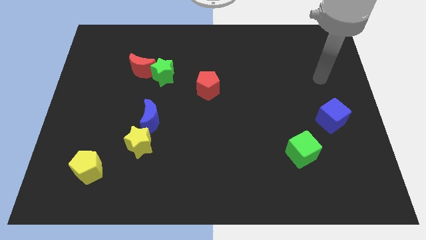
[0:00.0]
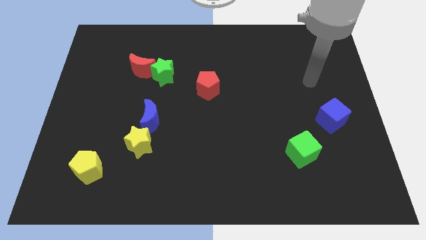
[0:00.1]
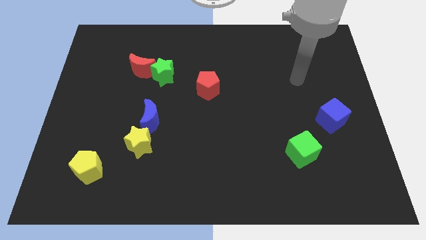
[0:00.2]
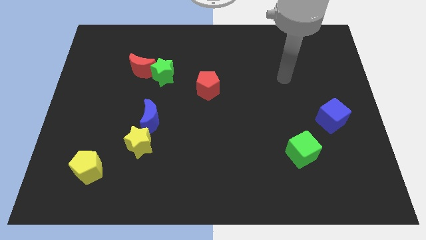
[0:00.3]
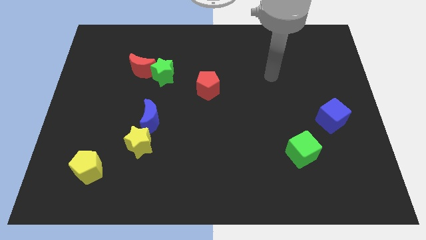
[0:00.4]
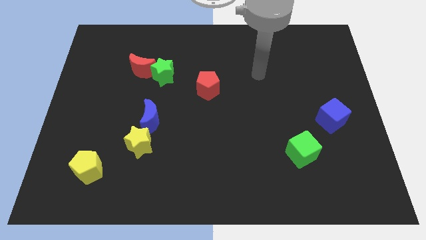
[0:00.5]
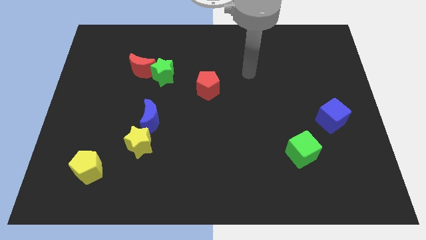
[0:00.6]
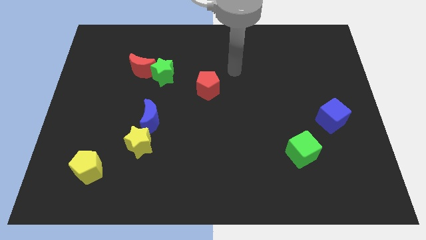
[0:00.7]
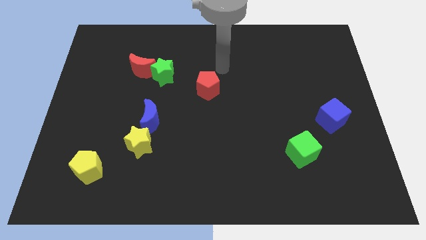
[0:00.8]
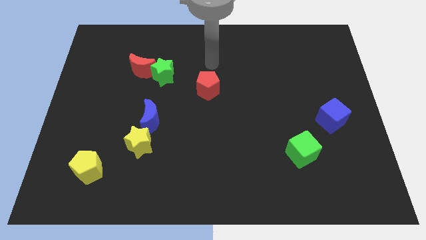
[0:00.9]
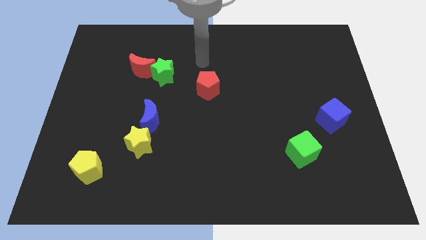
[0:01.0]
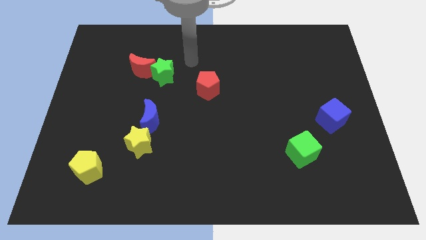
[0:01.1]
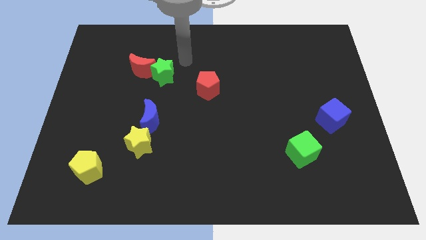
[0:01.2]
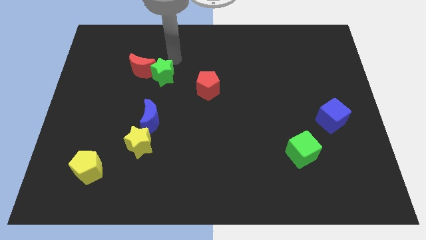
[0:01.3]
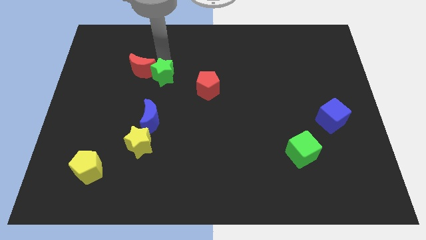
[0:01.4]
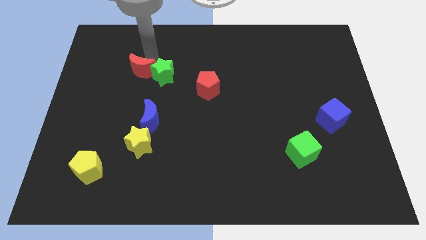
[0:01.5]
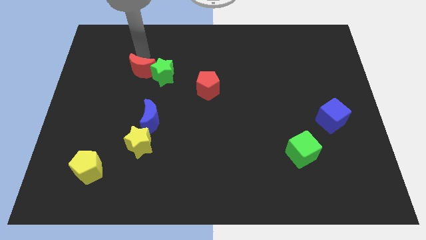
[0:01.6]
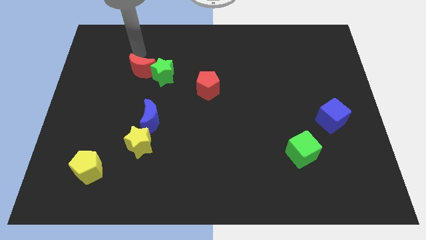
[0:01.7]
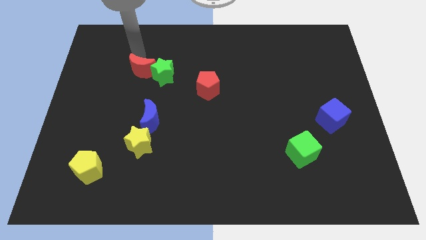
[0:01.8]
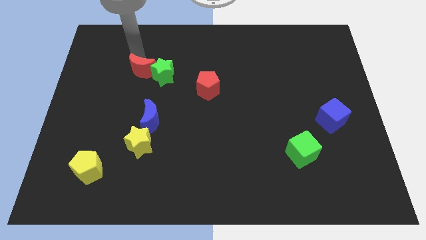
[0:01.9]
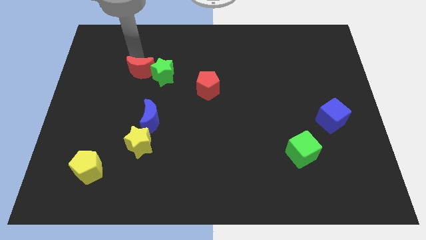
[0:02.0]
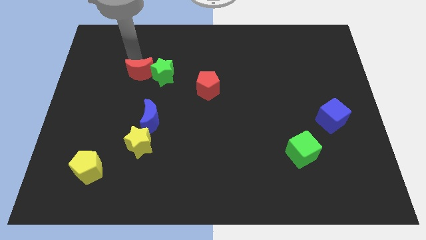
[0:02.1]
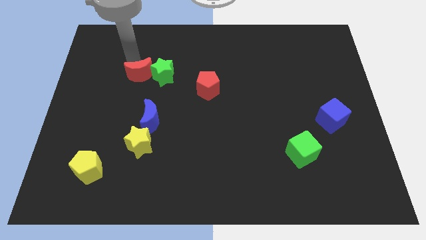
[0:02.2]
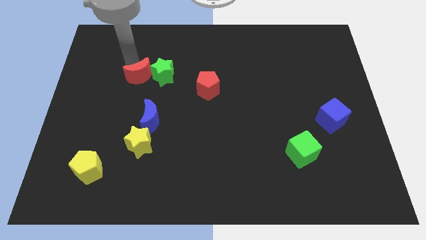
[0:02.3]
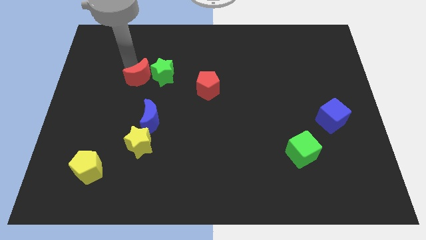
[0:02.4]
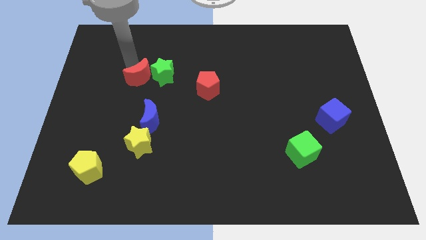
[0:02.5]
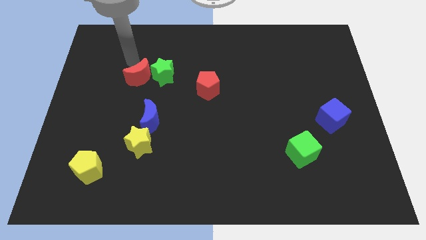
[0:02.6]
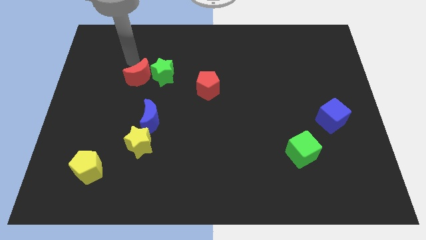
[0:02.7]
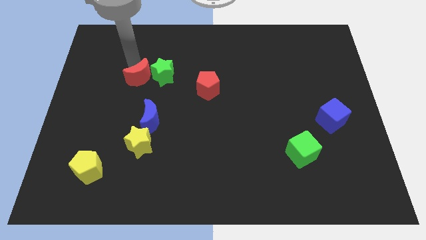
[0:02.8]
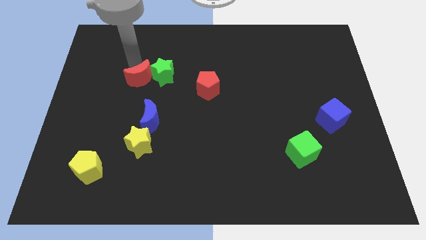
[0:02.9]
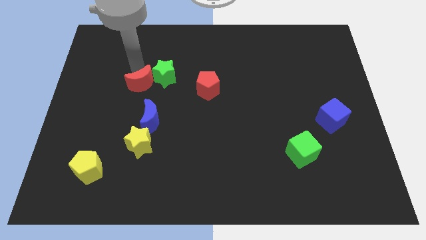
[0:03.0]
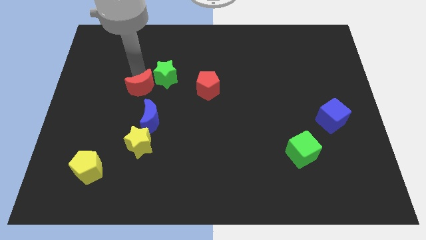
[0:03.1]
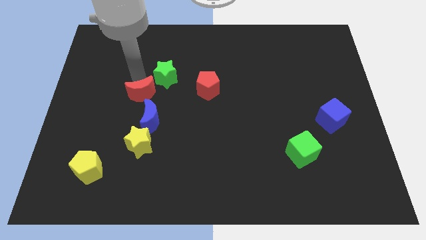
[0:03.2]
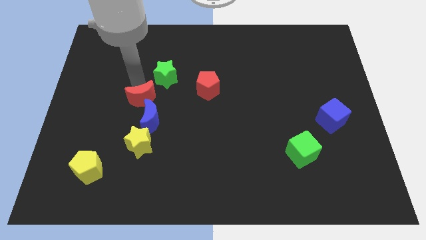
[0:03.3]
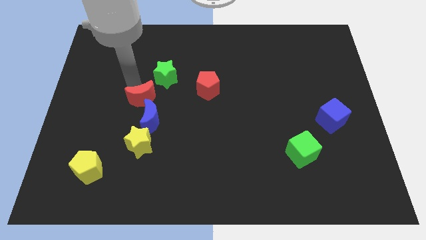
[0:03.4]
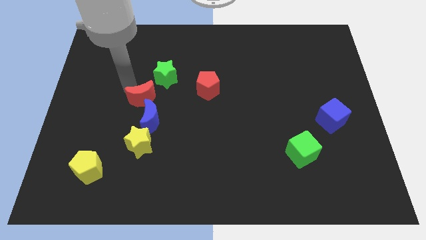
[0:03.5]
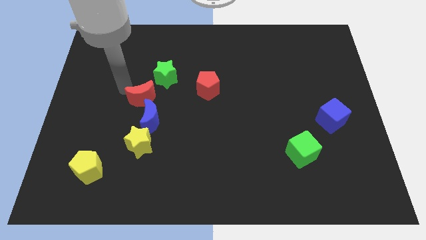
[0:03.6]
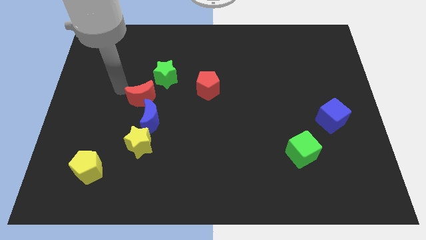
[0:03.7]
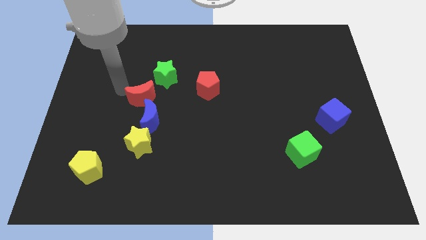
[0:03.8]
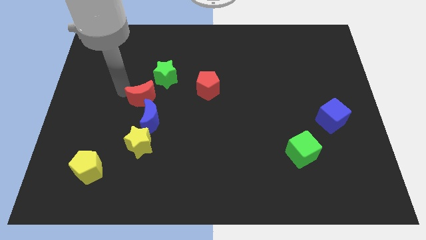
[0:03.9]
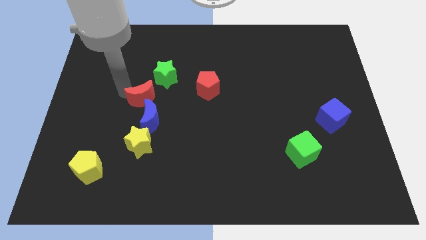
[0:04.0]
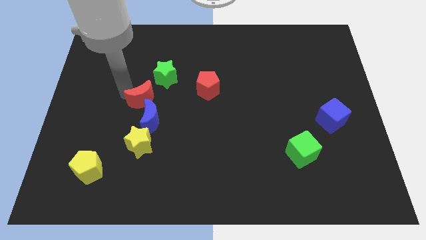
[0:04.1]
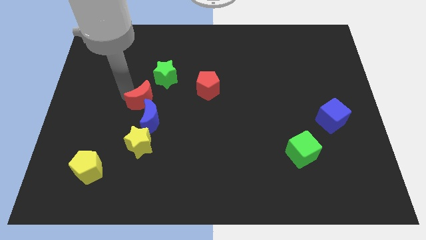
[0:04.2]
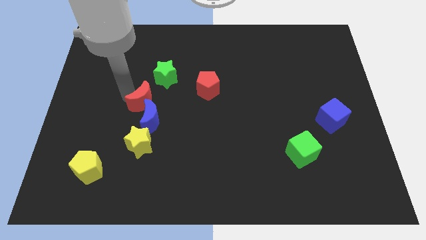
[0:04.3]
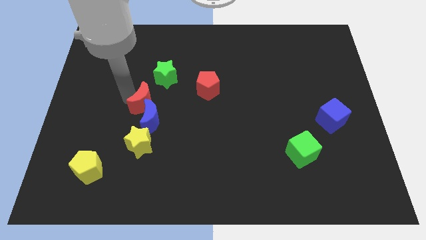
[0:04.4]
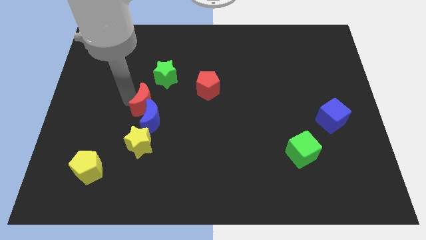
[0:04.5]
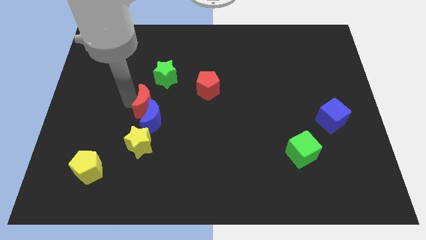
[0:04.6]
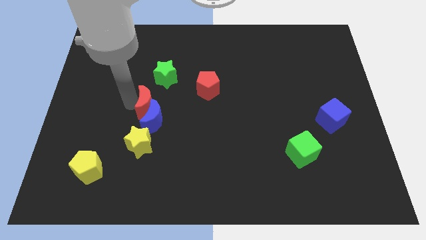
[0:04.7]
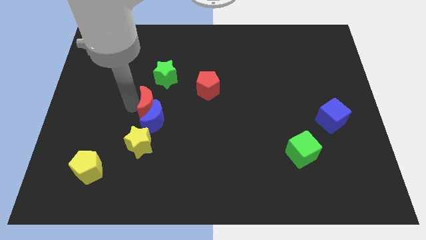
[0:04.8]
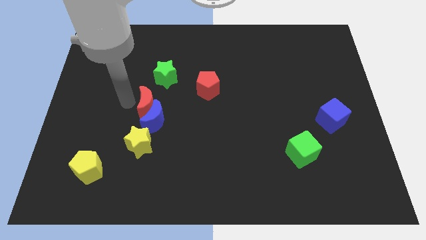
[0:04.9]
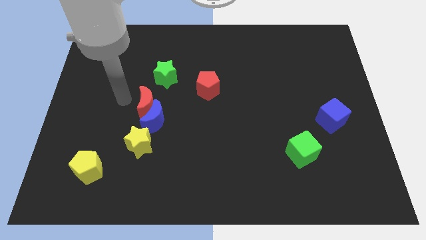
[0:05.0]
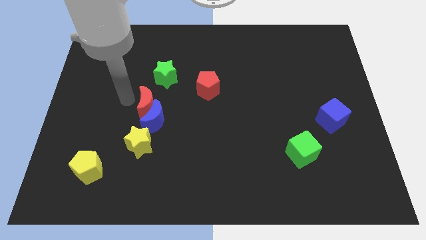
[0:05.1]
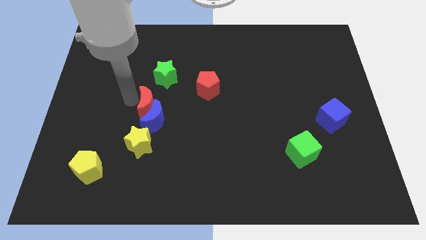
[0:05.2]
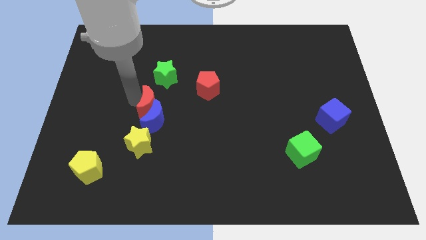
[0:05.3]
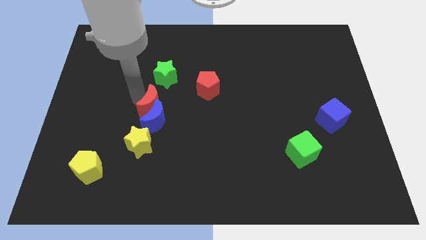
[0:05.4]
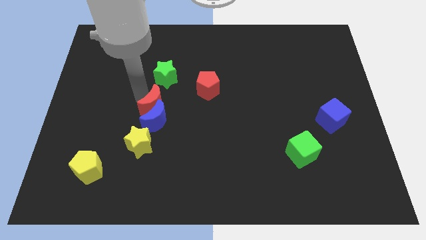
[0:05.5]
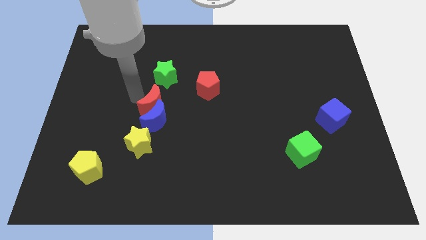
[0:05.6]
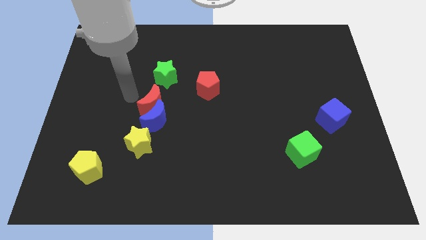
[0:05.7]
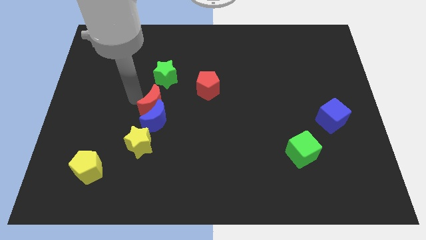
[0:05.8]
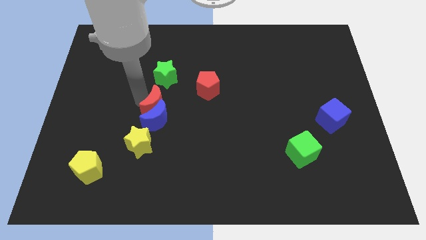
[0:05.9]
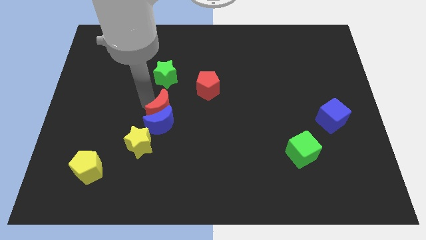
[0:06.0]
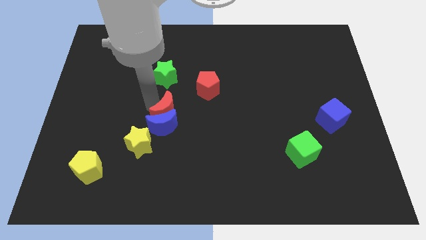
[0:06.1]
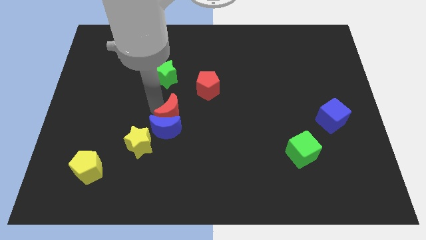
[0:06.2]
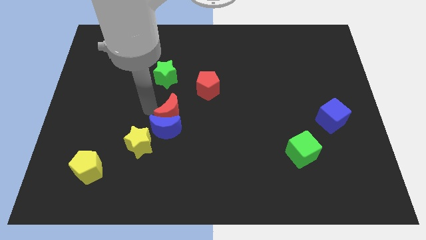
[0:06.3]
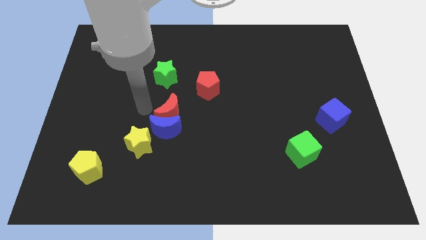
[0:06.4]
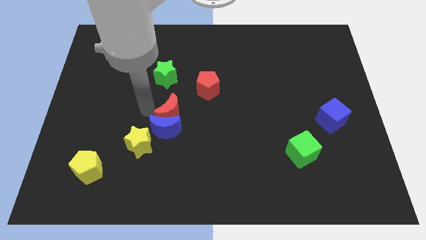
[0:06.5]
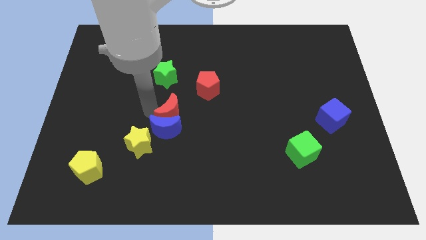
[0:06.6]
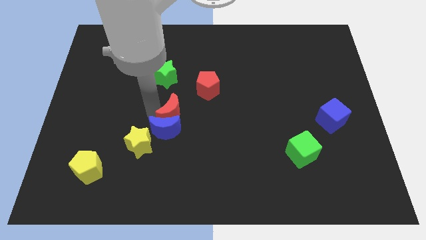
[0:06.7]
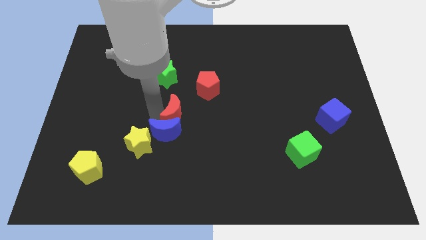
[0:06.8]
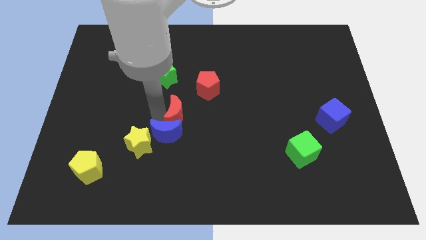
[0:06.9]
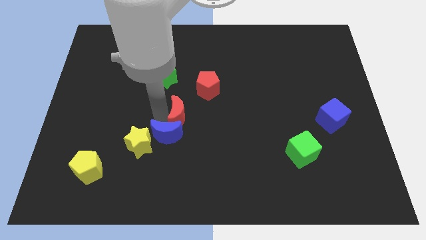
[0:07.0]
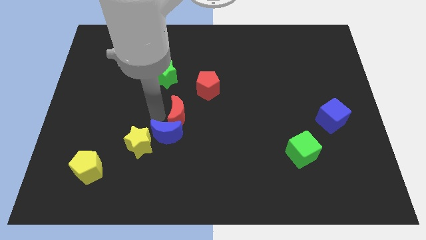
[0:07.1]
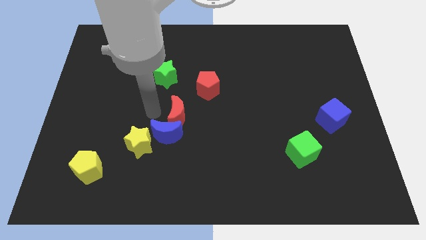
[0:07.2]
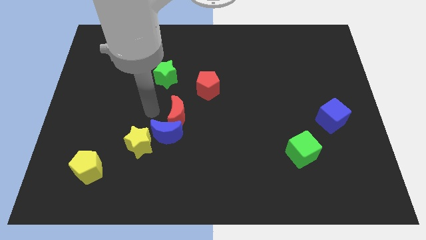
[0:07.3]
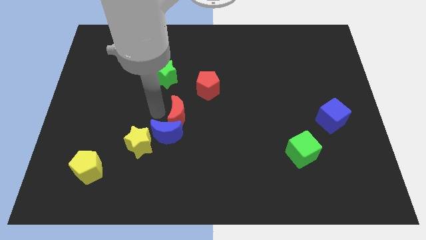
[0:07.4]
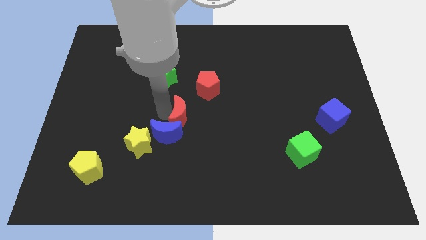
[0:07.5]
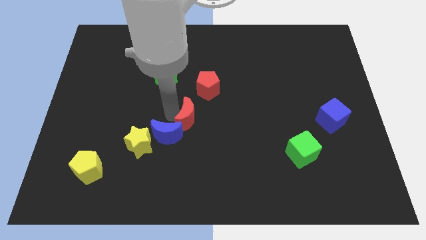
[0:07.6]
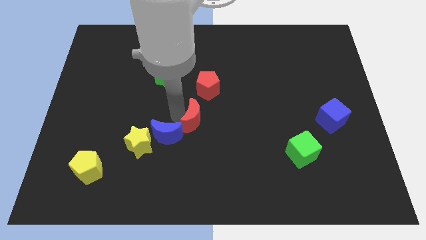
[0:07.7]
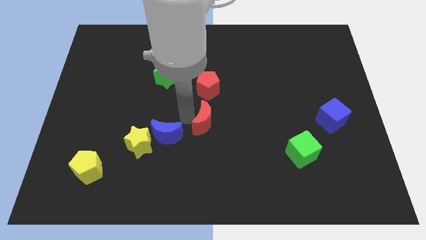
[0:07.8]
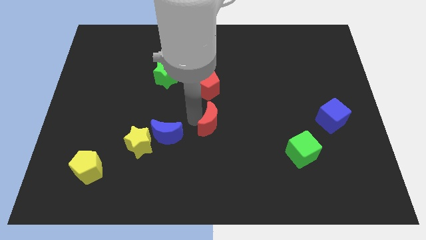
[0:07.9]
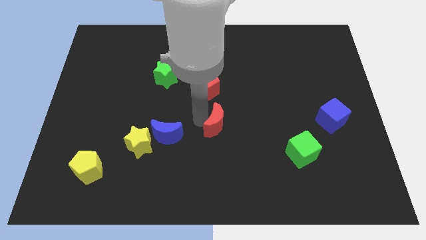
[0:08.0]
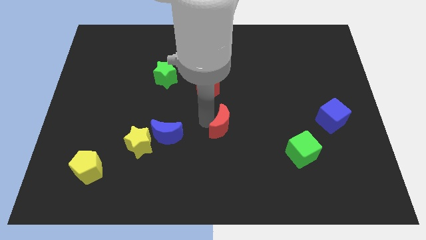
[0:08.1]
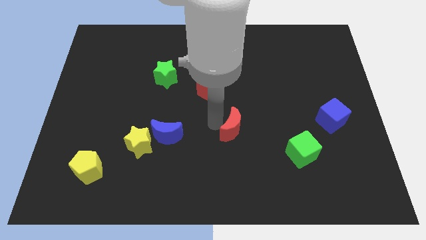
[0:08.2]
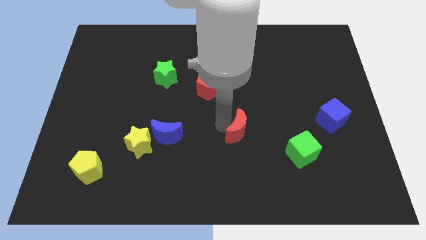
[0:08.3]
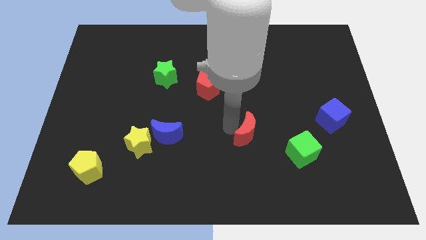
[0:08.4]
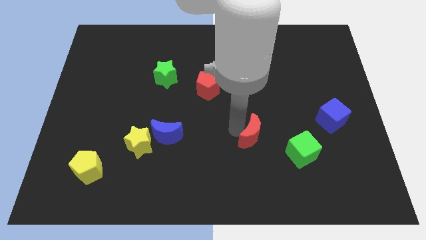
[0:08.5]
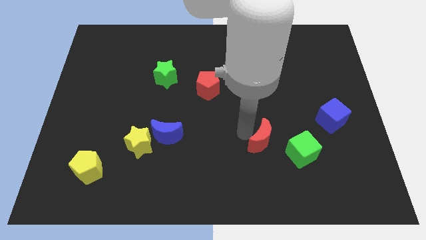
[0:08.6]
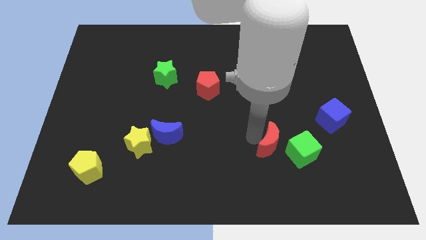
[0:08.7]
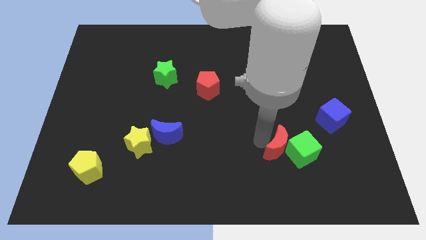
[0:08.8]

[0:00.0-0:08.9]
put the red moon towards the green cube
